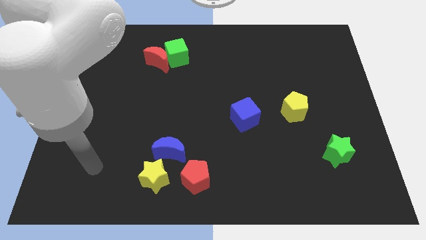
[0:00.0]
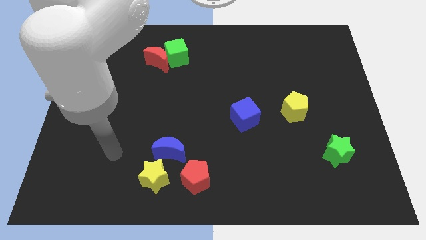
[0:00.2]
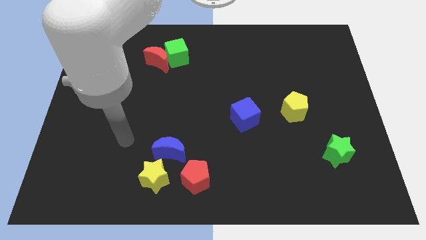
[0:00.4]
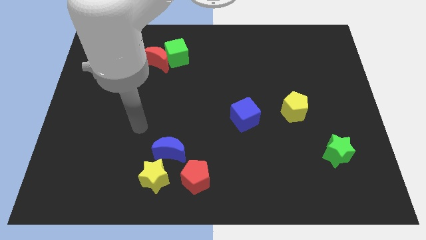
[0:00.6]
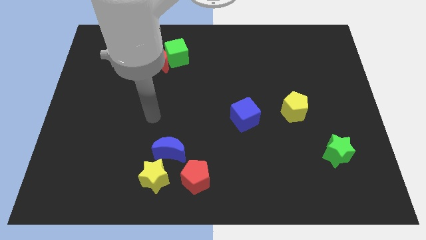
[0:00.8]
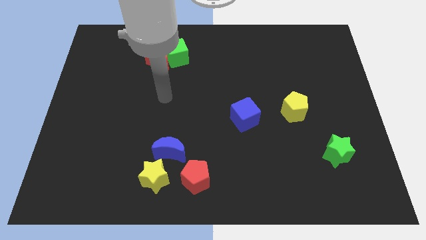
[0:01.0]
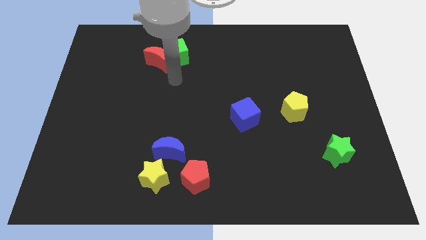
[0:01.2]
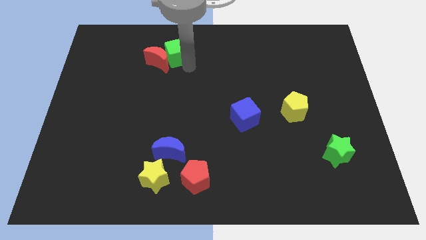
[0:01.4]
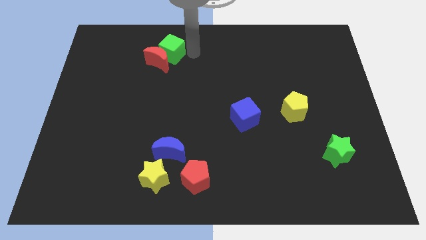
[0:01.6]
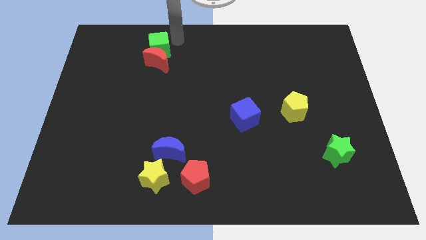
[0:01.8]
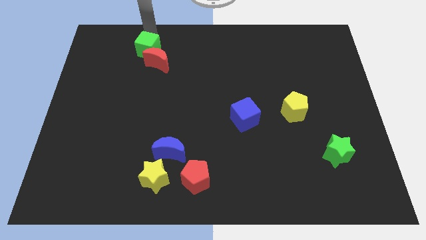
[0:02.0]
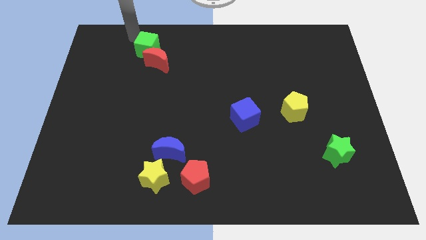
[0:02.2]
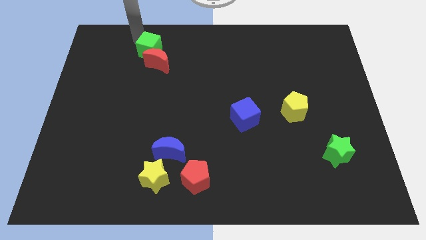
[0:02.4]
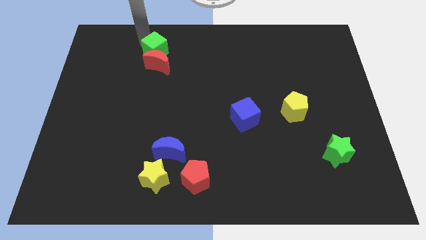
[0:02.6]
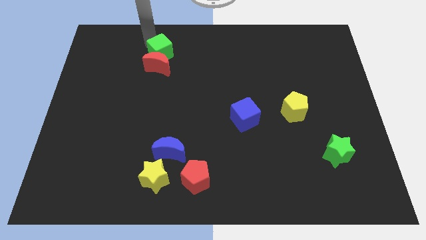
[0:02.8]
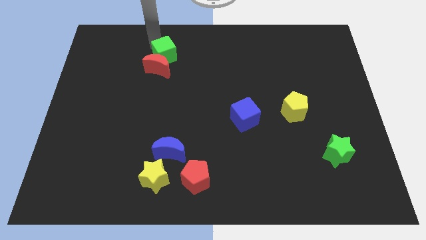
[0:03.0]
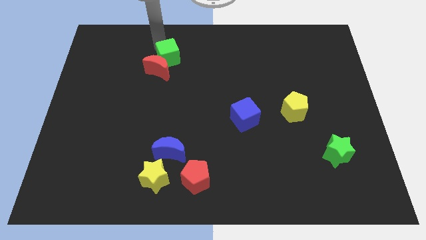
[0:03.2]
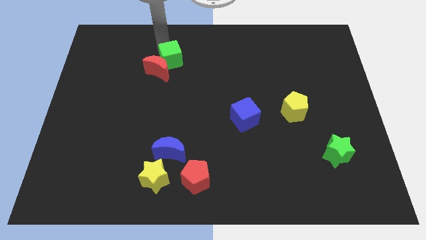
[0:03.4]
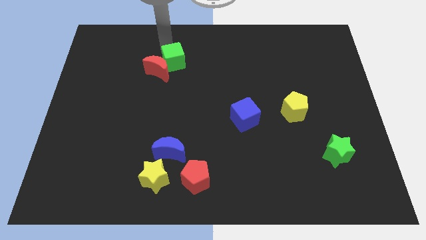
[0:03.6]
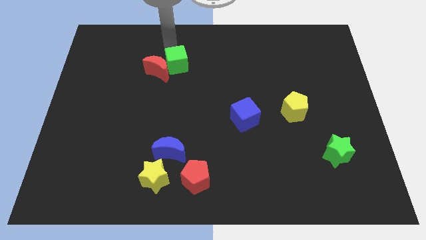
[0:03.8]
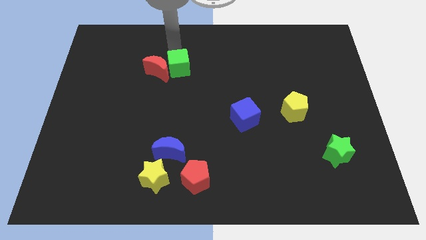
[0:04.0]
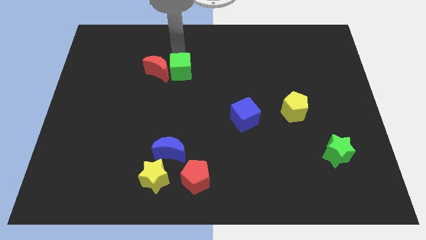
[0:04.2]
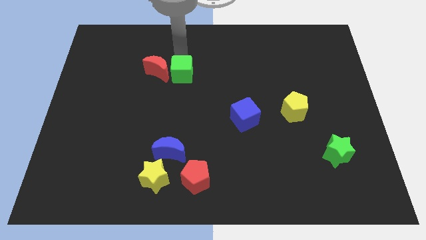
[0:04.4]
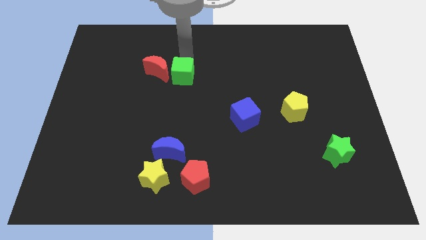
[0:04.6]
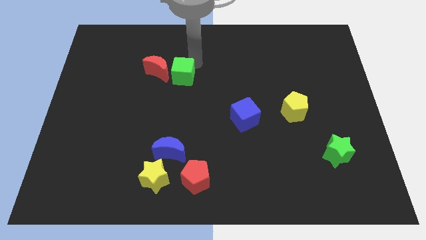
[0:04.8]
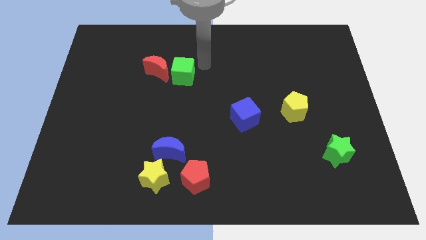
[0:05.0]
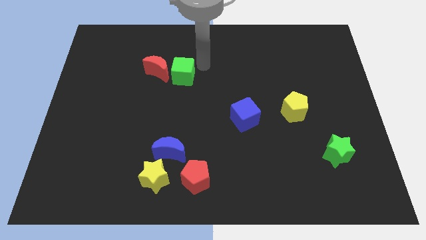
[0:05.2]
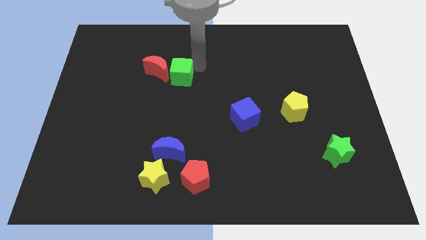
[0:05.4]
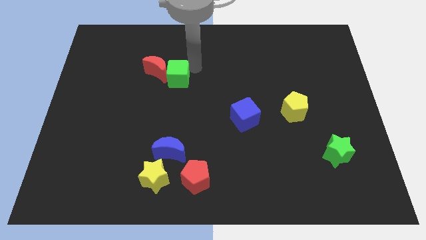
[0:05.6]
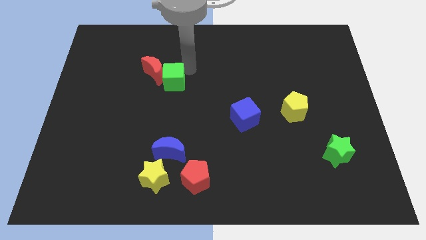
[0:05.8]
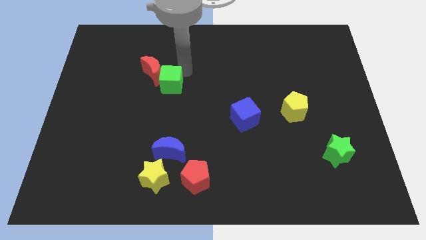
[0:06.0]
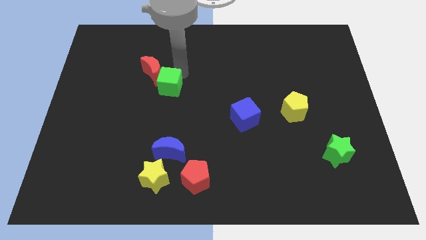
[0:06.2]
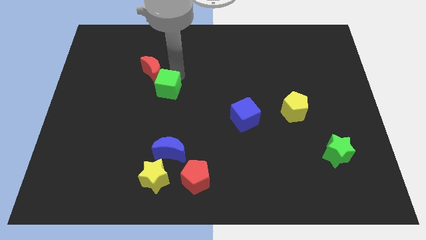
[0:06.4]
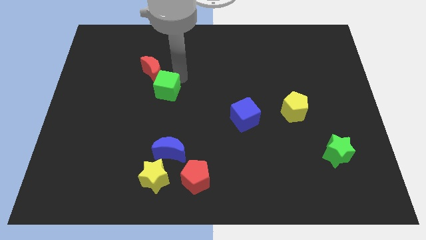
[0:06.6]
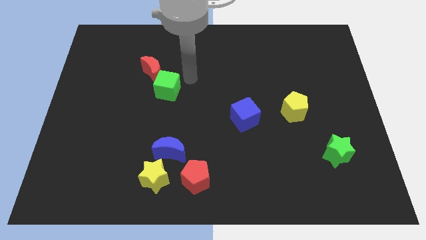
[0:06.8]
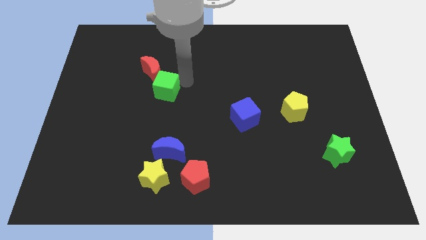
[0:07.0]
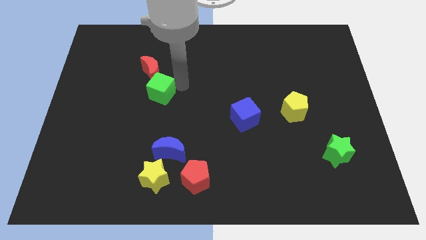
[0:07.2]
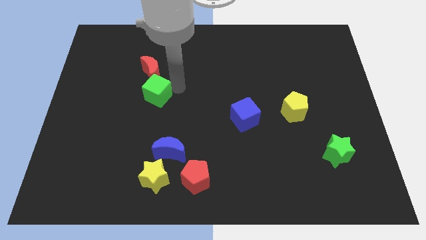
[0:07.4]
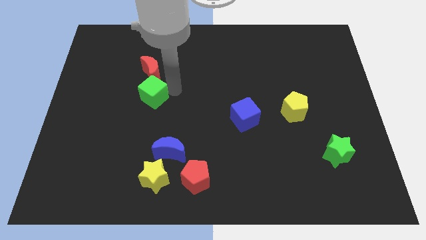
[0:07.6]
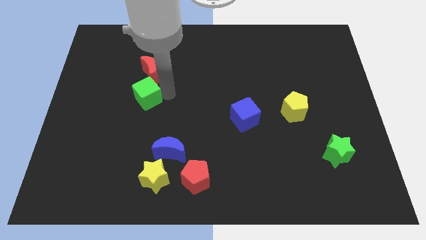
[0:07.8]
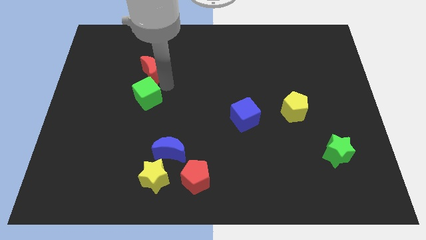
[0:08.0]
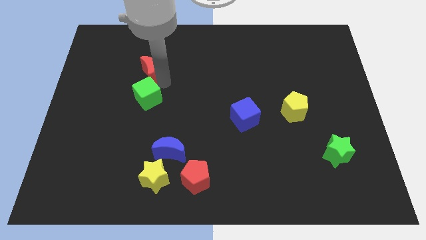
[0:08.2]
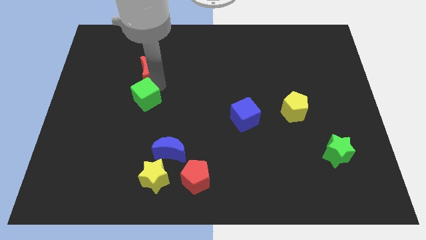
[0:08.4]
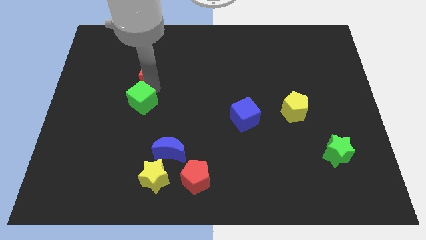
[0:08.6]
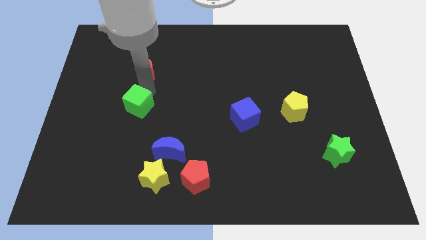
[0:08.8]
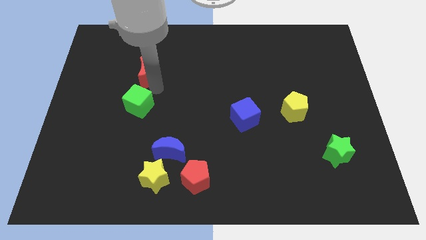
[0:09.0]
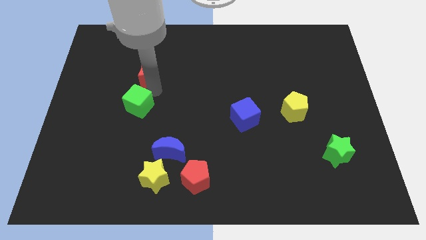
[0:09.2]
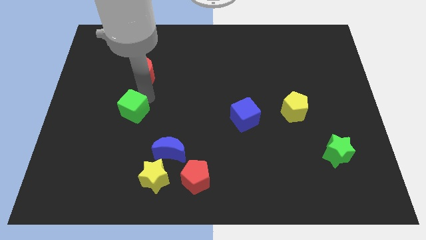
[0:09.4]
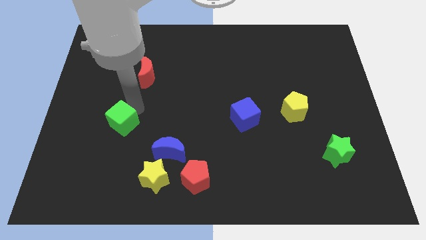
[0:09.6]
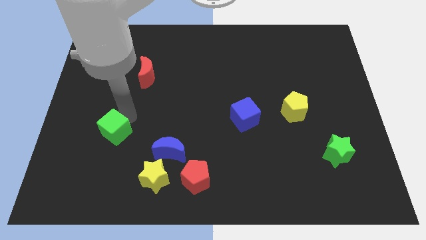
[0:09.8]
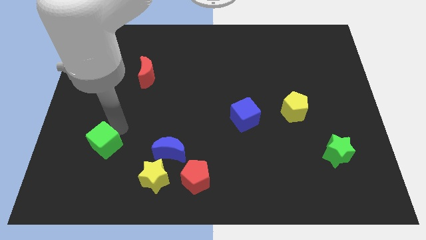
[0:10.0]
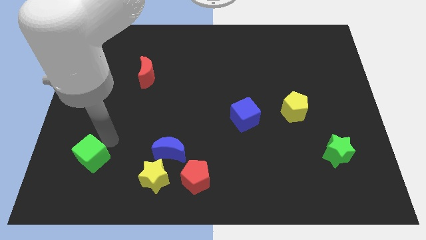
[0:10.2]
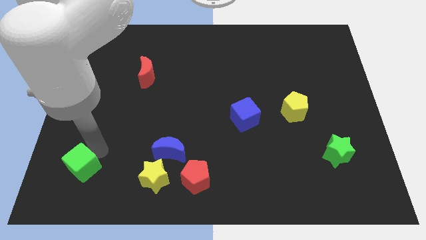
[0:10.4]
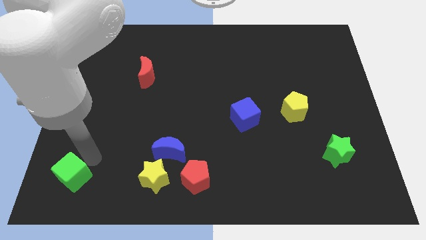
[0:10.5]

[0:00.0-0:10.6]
push the green cube to the bottom left corner

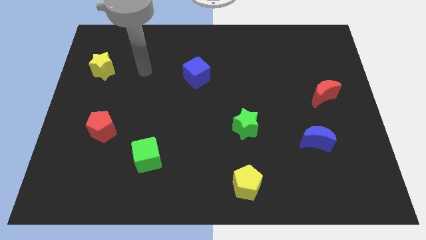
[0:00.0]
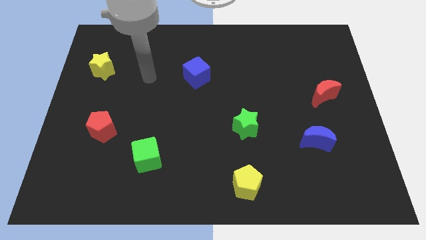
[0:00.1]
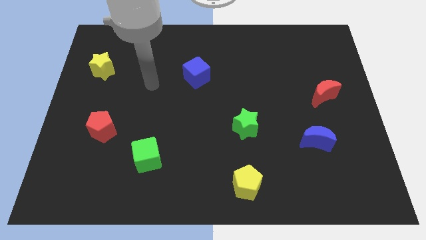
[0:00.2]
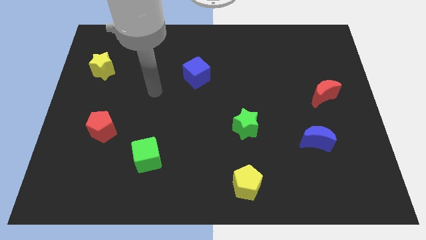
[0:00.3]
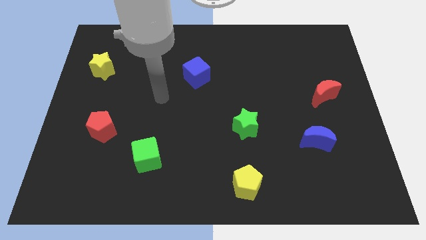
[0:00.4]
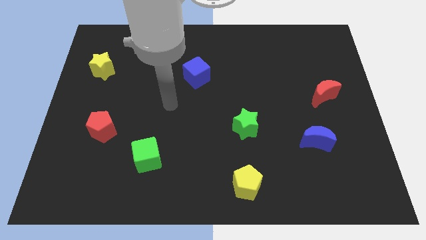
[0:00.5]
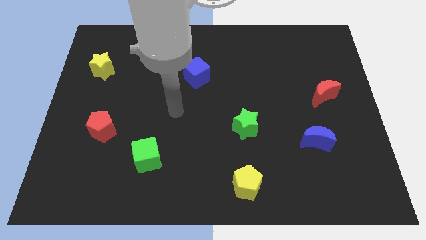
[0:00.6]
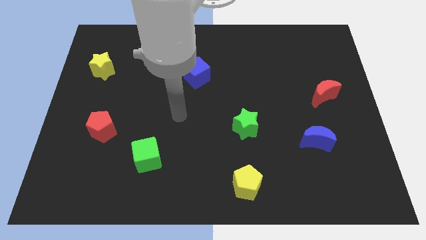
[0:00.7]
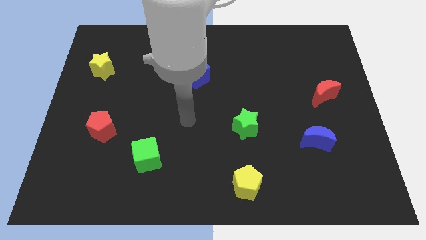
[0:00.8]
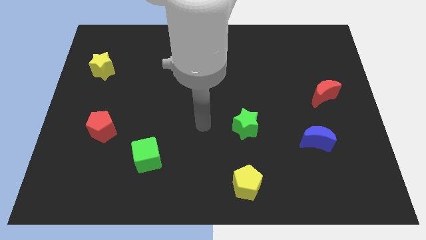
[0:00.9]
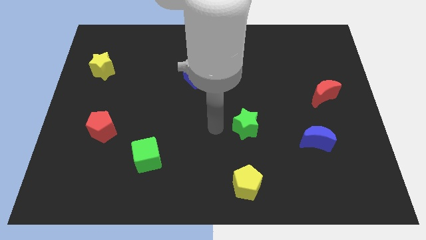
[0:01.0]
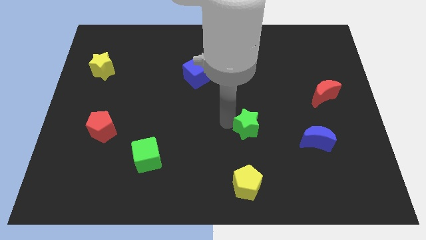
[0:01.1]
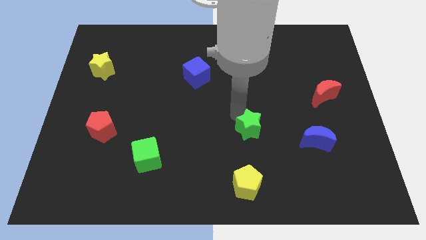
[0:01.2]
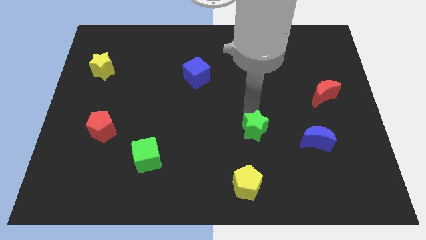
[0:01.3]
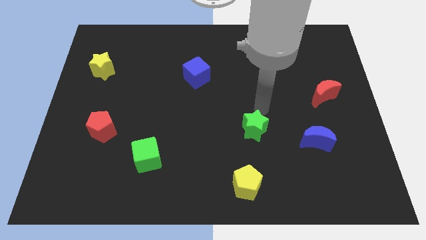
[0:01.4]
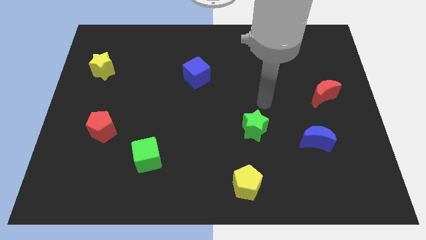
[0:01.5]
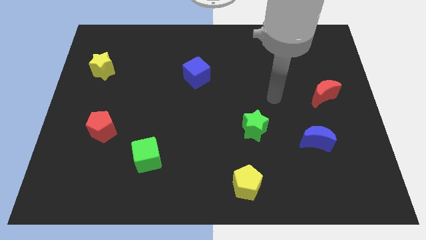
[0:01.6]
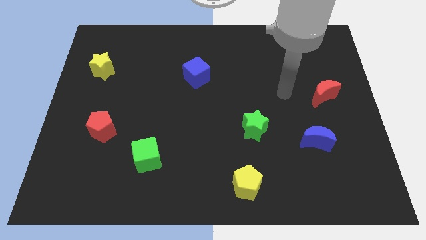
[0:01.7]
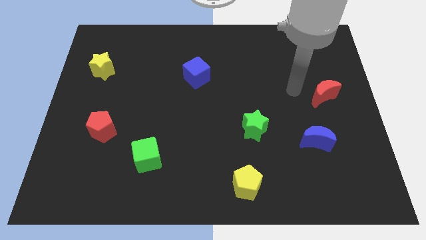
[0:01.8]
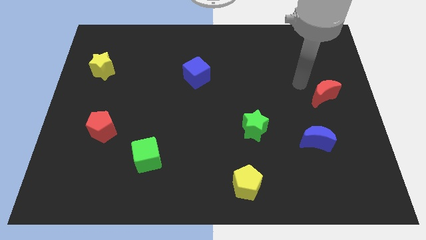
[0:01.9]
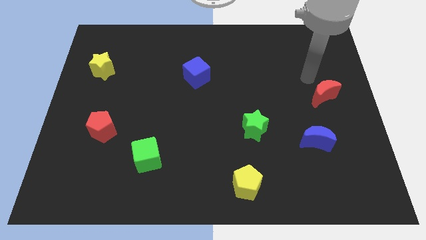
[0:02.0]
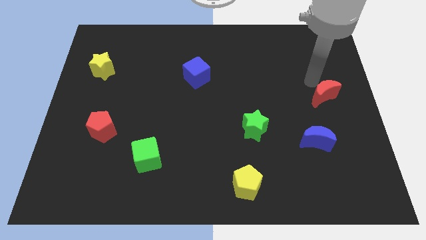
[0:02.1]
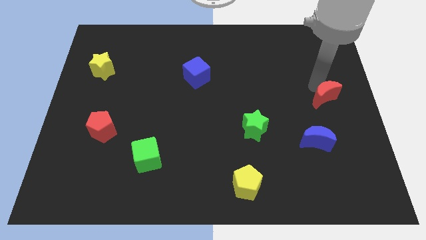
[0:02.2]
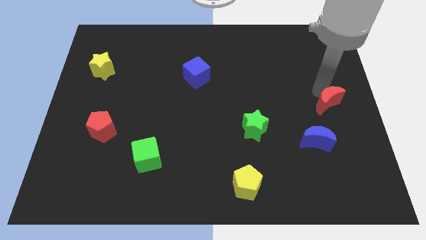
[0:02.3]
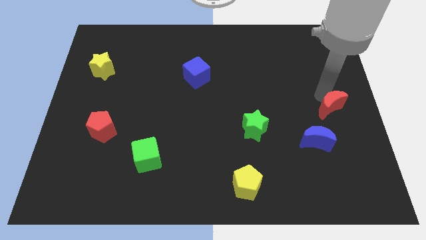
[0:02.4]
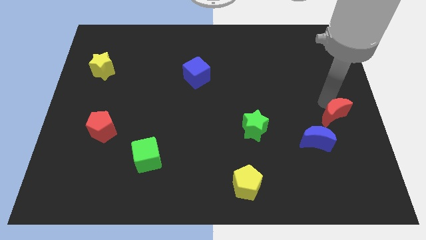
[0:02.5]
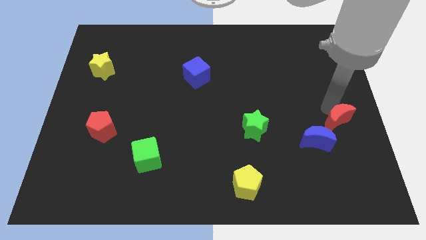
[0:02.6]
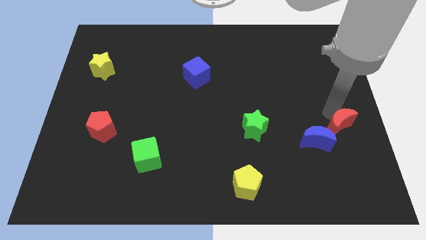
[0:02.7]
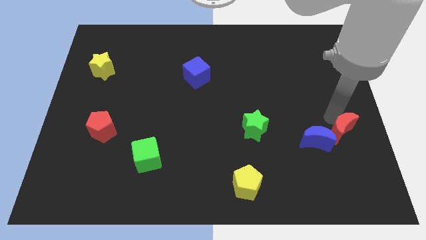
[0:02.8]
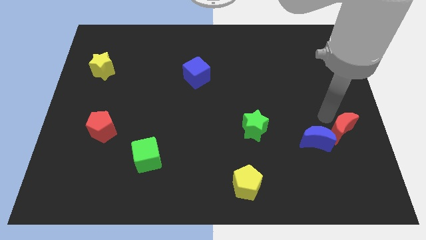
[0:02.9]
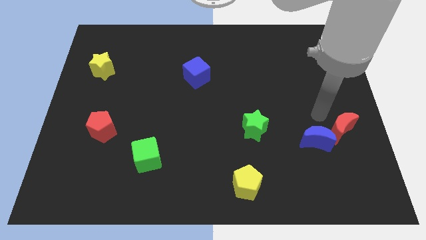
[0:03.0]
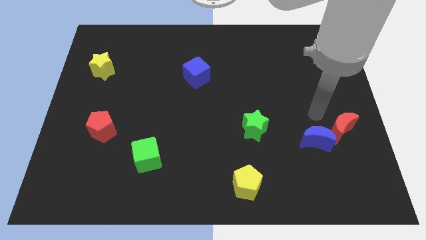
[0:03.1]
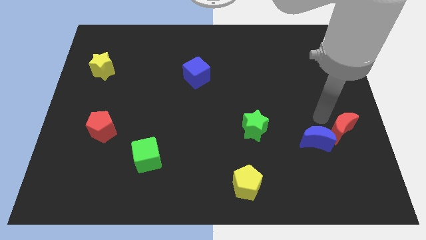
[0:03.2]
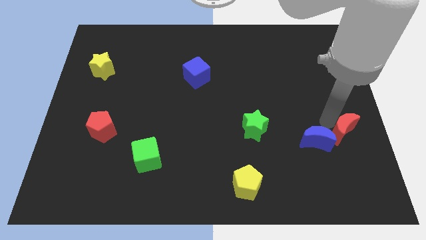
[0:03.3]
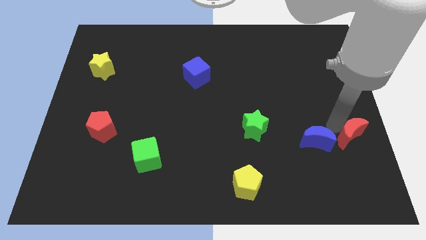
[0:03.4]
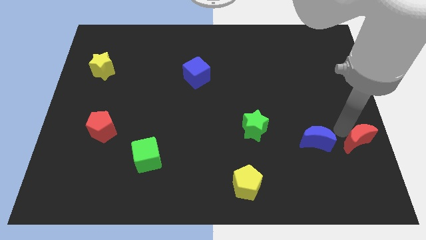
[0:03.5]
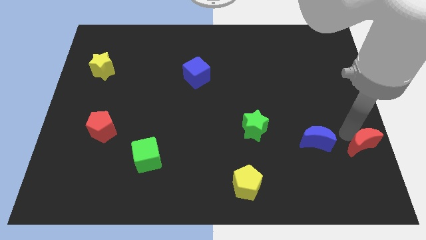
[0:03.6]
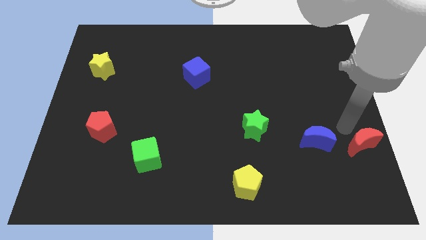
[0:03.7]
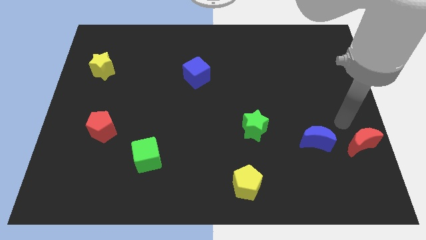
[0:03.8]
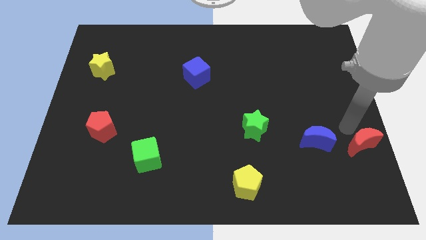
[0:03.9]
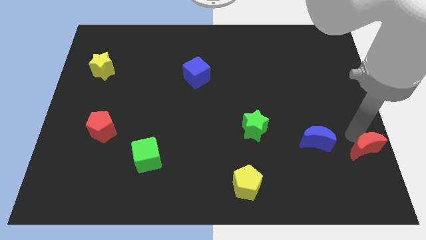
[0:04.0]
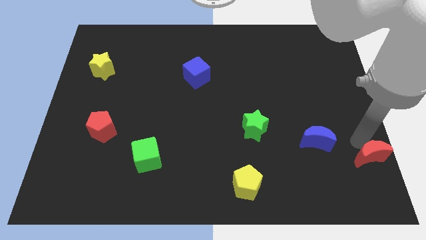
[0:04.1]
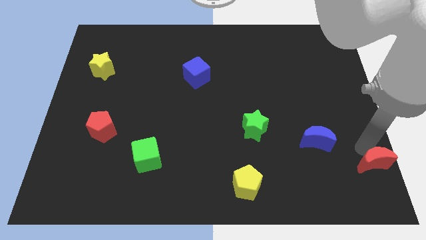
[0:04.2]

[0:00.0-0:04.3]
put the red moon to the bottom right
